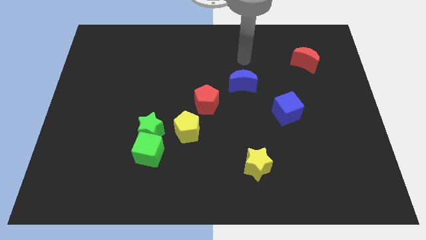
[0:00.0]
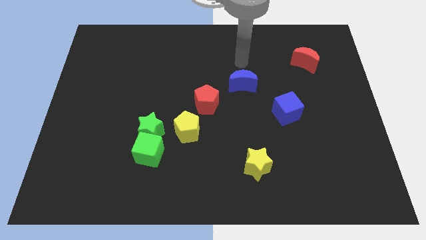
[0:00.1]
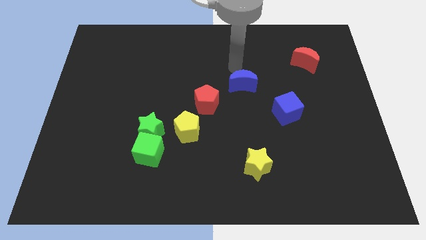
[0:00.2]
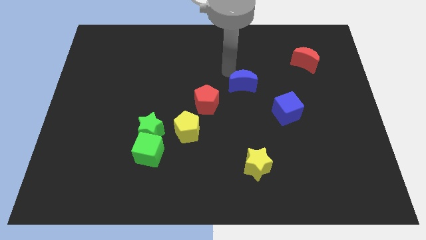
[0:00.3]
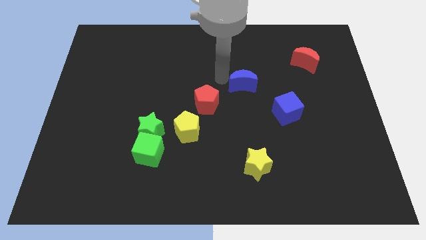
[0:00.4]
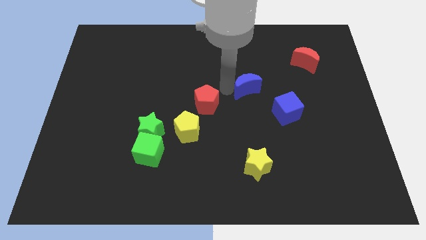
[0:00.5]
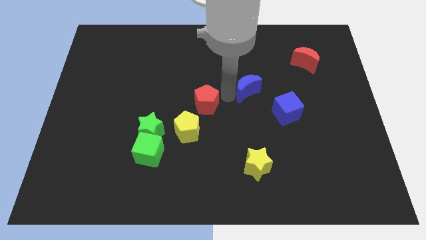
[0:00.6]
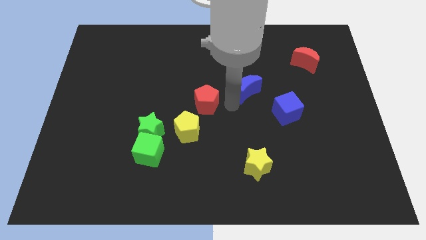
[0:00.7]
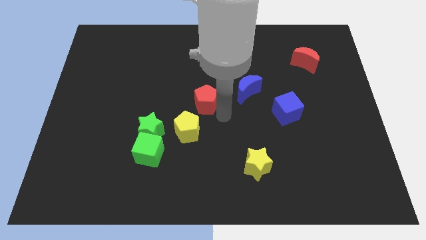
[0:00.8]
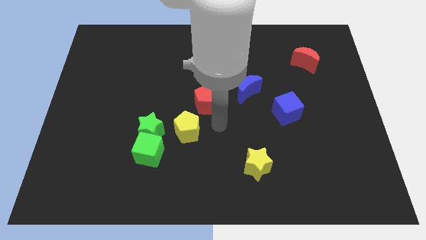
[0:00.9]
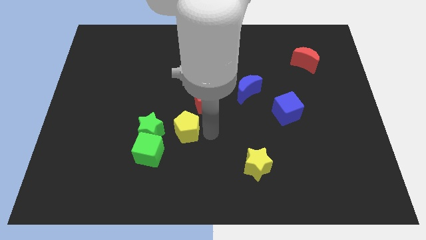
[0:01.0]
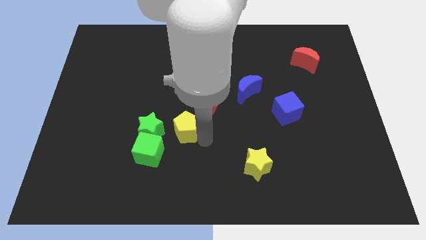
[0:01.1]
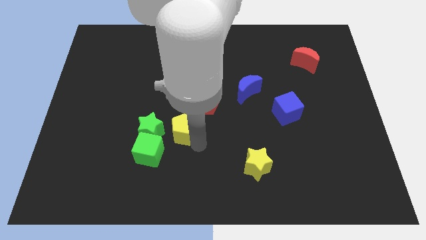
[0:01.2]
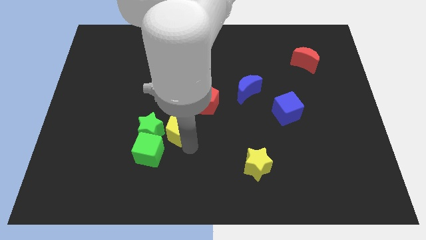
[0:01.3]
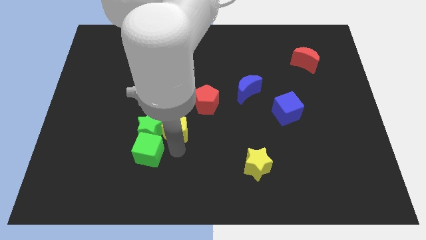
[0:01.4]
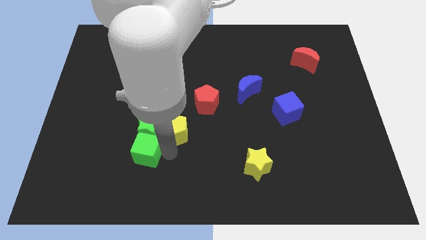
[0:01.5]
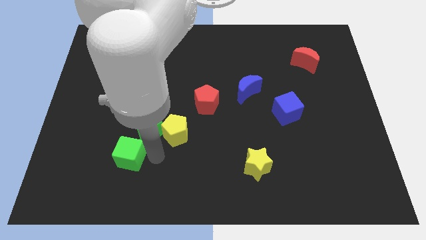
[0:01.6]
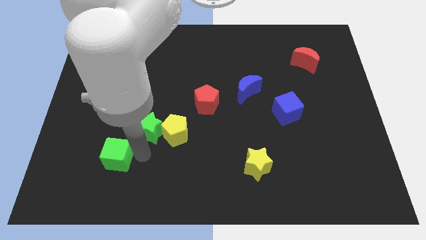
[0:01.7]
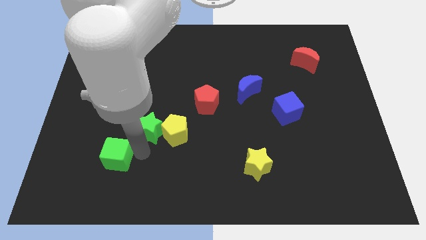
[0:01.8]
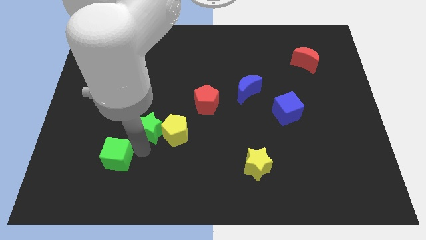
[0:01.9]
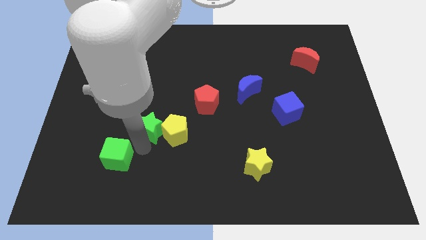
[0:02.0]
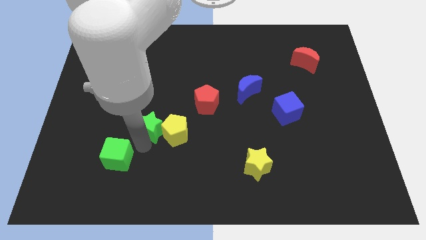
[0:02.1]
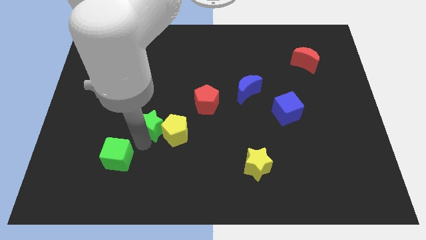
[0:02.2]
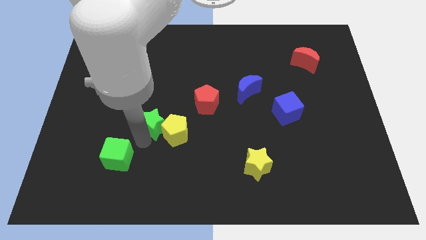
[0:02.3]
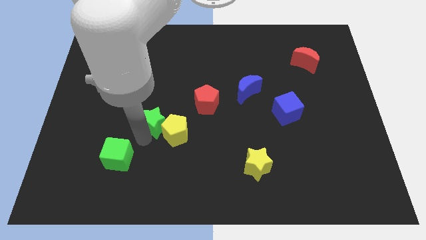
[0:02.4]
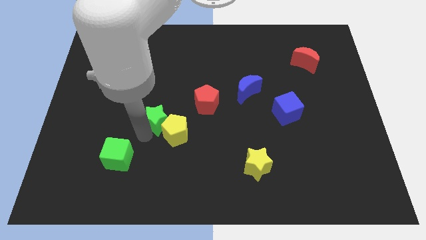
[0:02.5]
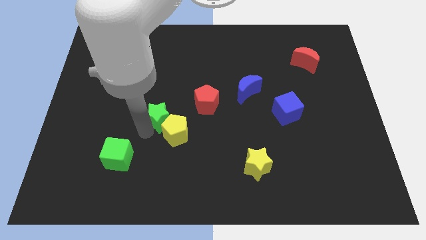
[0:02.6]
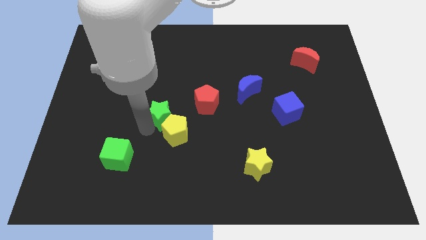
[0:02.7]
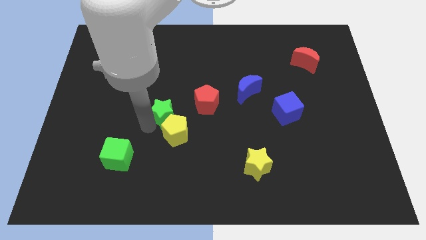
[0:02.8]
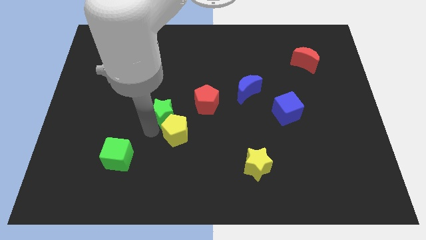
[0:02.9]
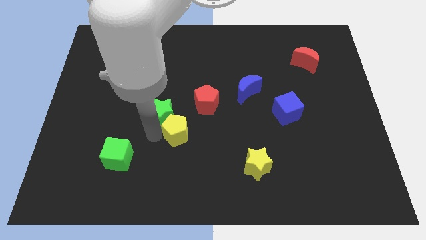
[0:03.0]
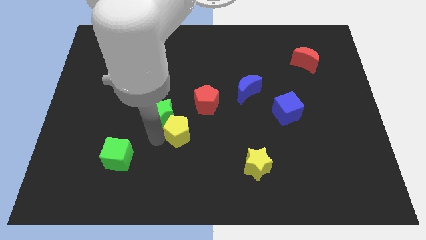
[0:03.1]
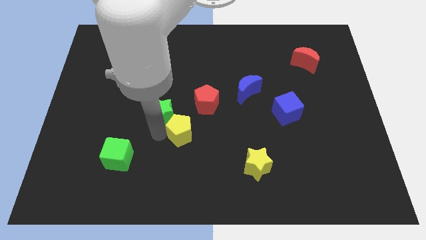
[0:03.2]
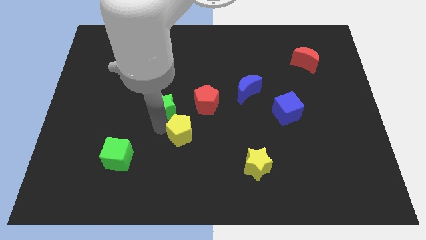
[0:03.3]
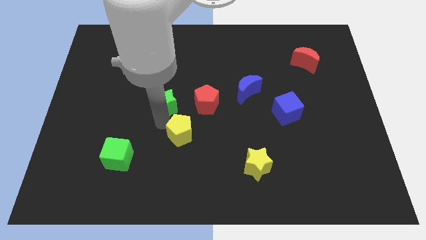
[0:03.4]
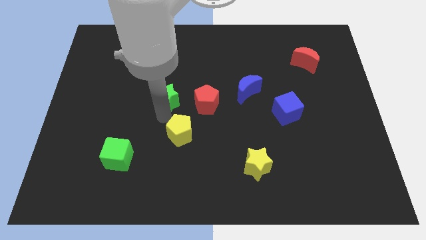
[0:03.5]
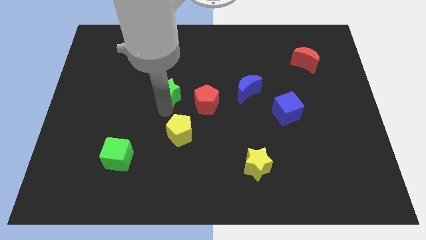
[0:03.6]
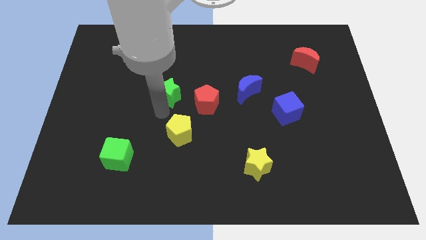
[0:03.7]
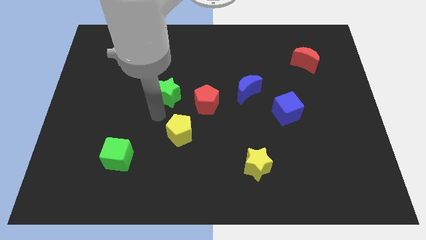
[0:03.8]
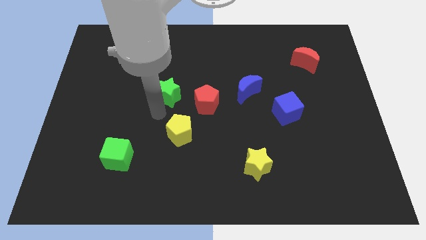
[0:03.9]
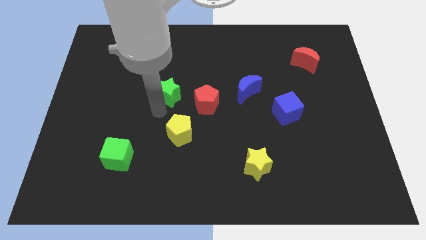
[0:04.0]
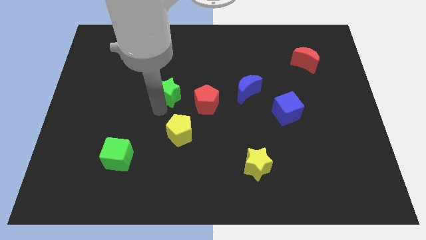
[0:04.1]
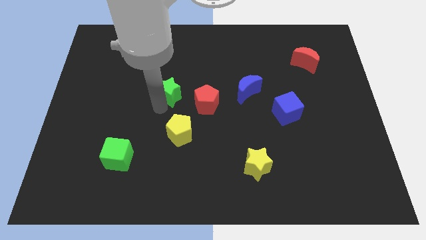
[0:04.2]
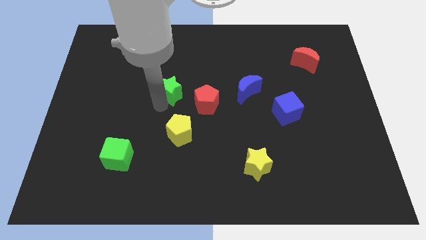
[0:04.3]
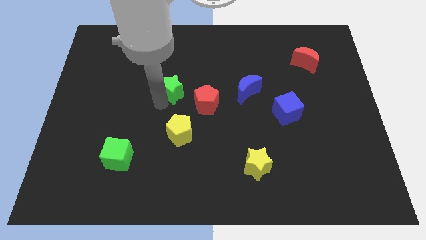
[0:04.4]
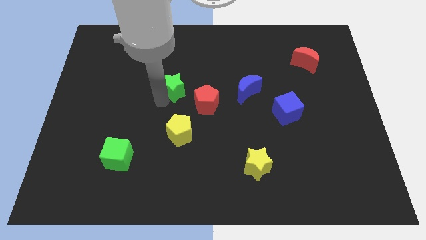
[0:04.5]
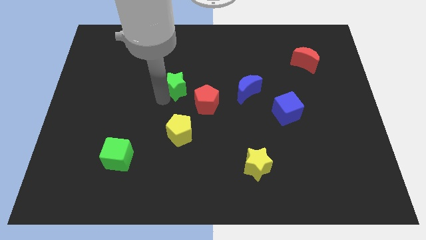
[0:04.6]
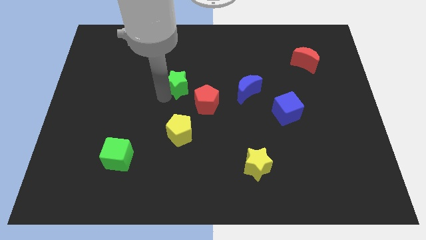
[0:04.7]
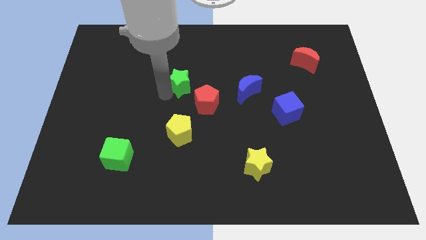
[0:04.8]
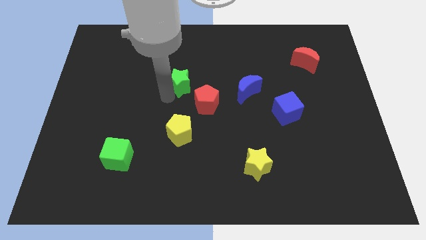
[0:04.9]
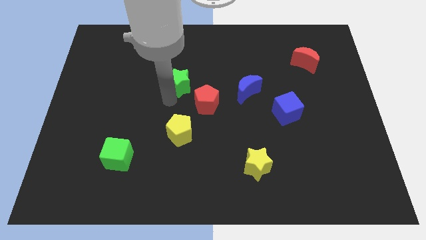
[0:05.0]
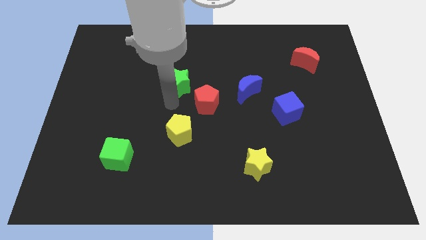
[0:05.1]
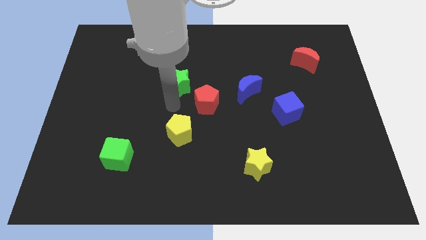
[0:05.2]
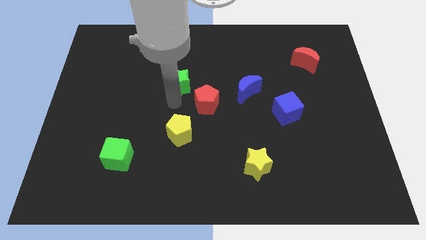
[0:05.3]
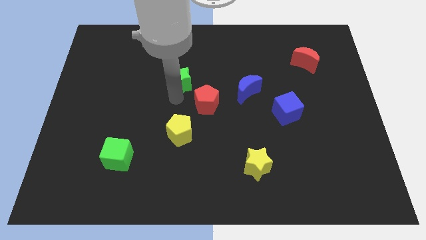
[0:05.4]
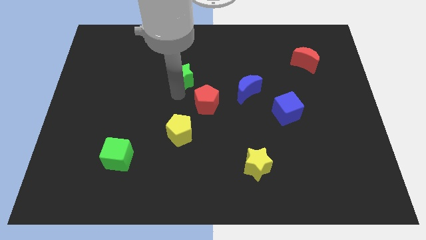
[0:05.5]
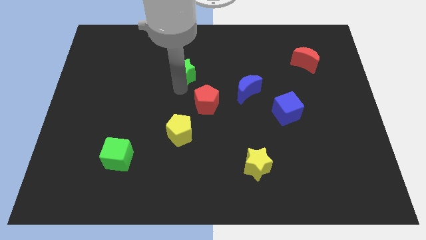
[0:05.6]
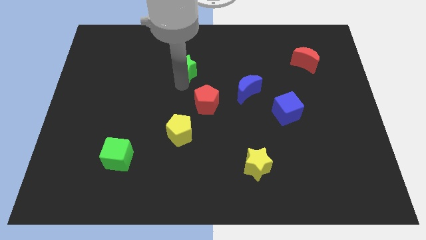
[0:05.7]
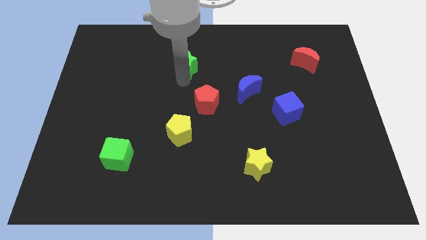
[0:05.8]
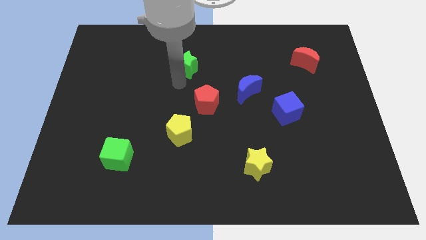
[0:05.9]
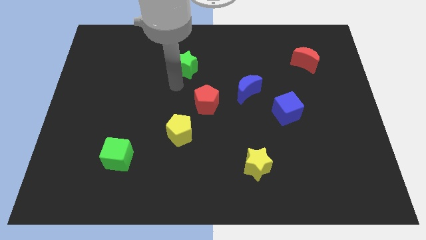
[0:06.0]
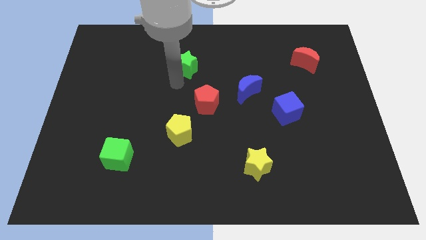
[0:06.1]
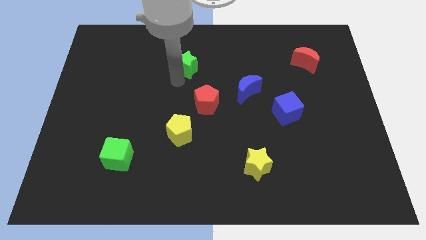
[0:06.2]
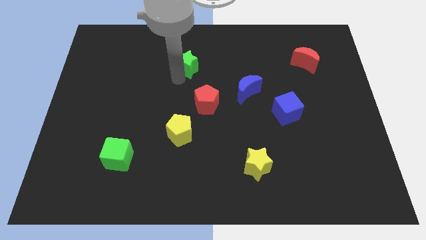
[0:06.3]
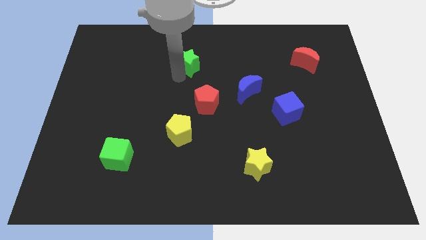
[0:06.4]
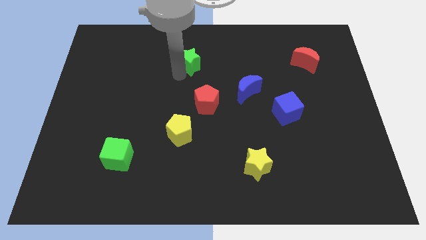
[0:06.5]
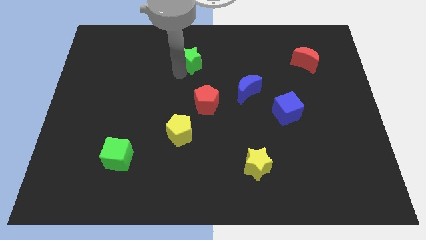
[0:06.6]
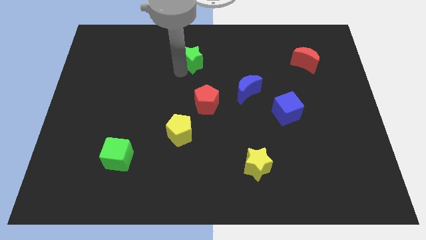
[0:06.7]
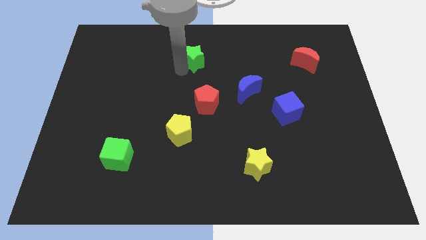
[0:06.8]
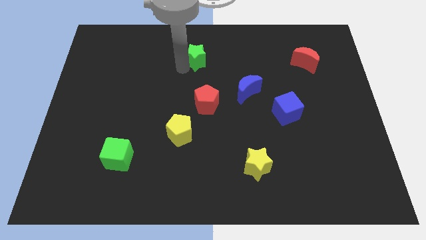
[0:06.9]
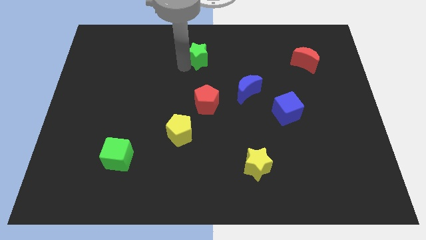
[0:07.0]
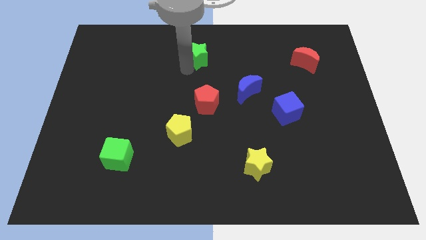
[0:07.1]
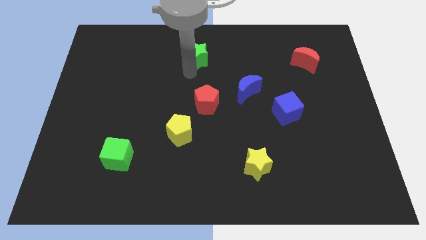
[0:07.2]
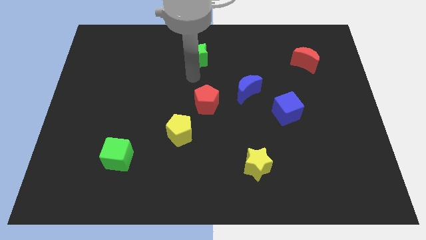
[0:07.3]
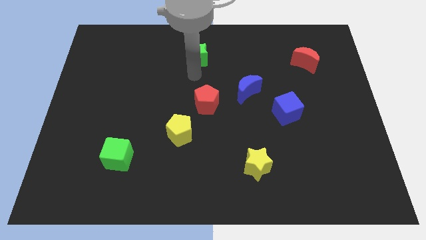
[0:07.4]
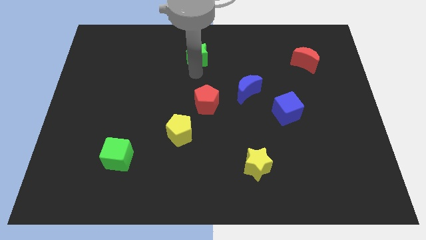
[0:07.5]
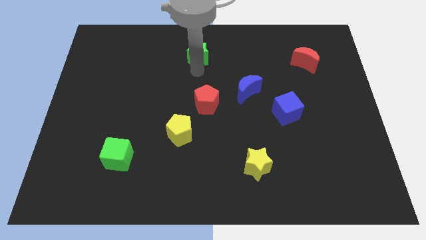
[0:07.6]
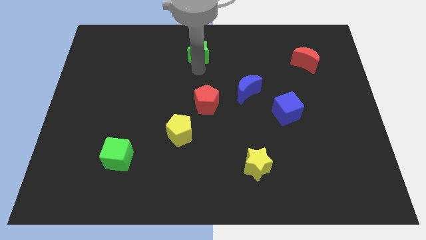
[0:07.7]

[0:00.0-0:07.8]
slide the green star to the top
